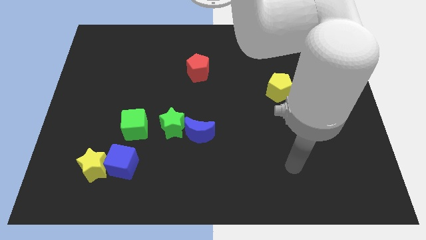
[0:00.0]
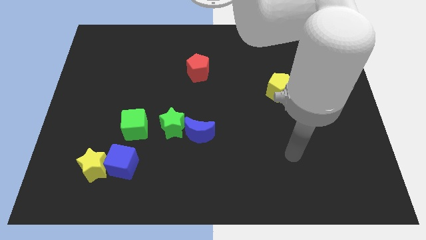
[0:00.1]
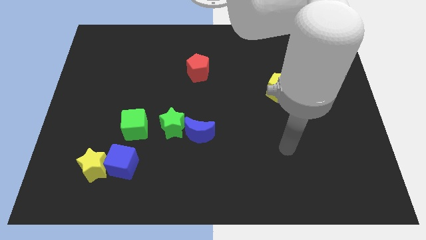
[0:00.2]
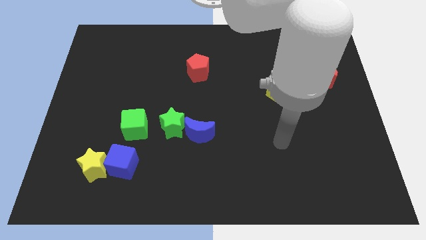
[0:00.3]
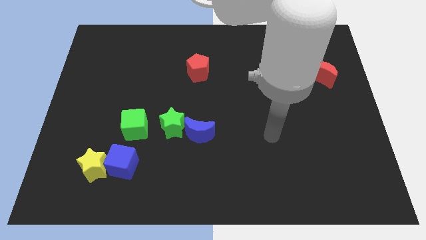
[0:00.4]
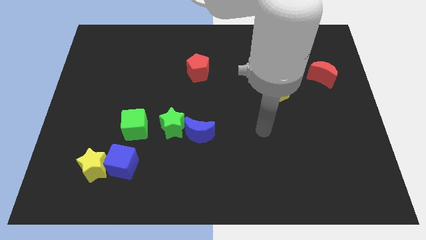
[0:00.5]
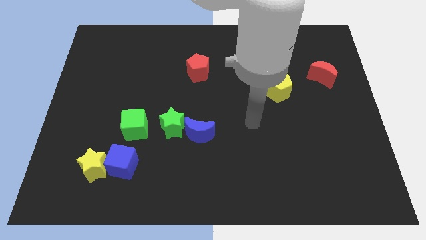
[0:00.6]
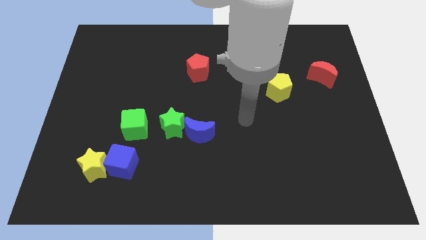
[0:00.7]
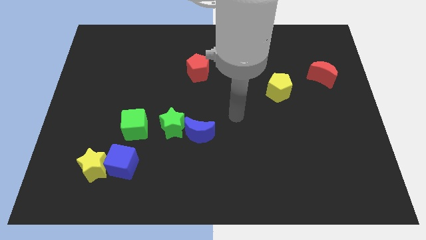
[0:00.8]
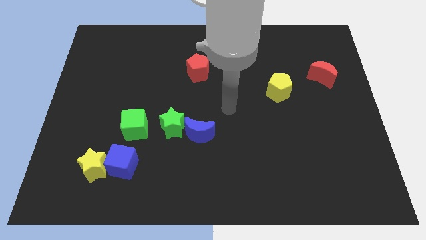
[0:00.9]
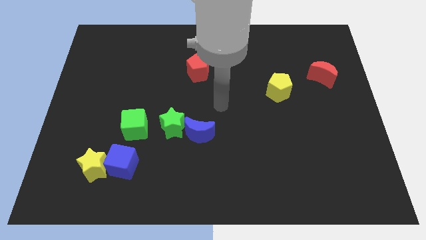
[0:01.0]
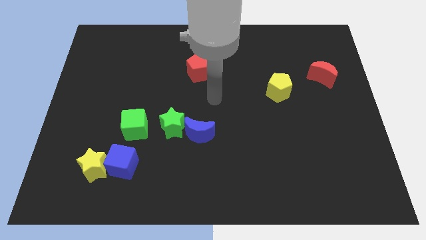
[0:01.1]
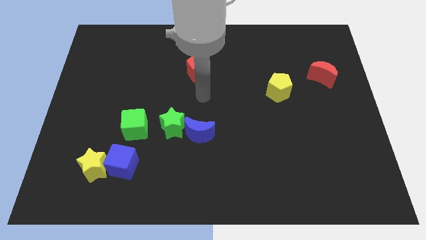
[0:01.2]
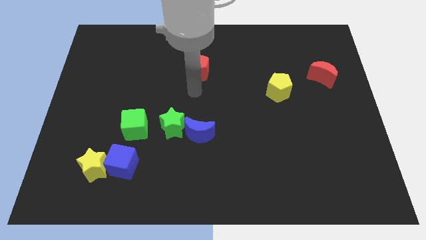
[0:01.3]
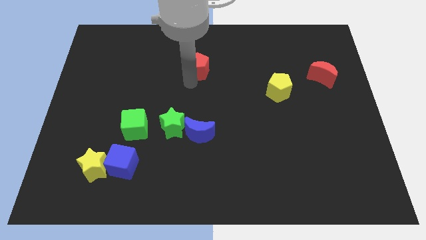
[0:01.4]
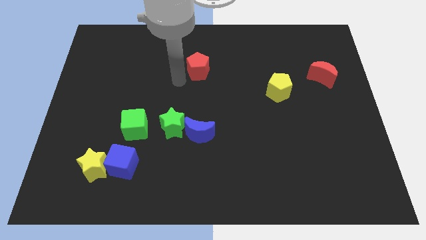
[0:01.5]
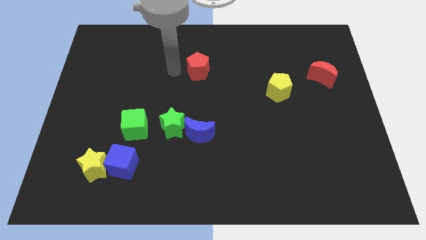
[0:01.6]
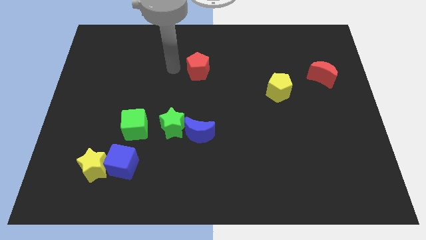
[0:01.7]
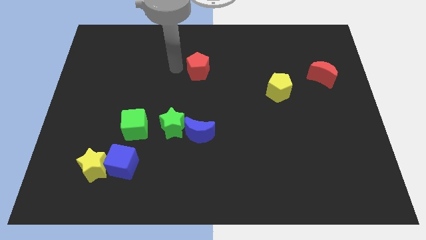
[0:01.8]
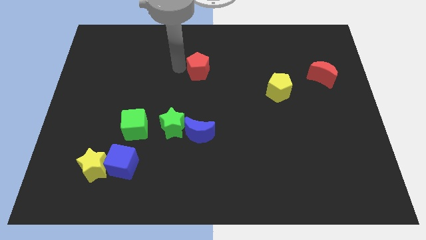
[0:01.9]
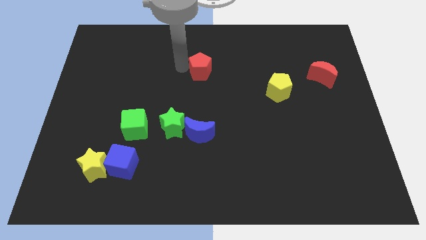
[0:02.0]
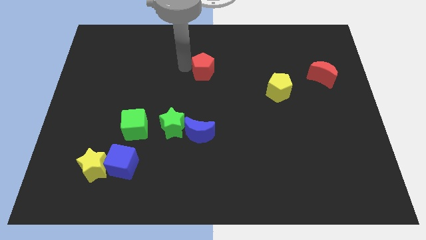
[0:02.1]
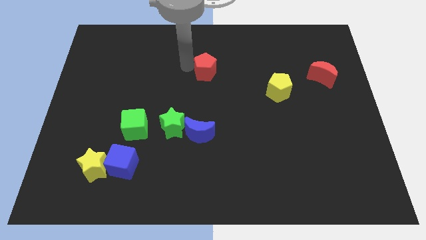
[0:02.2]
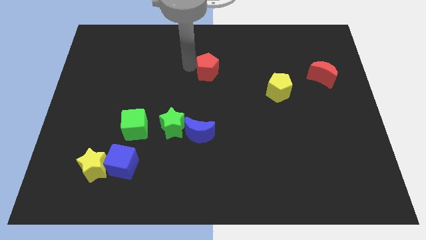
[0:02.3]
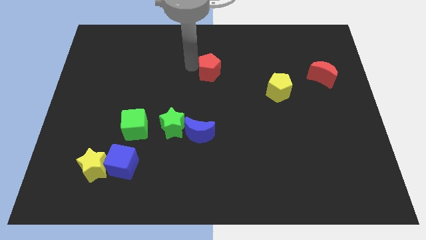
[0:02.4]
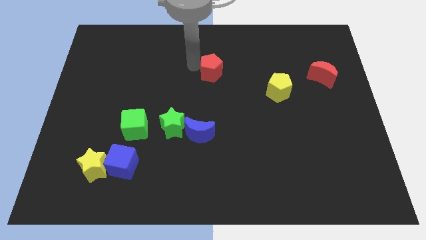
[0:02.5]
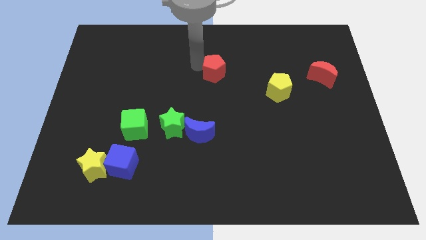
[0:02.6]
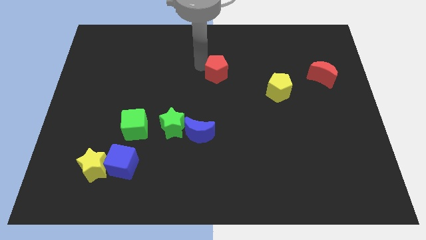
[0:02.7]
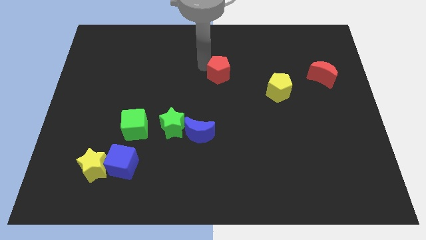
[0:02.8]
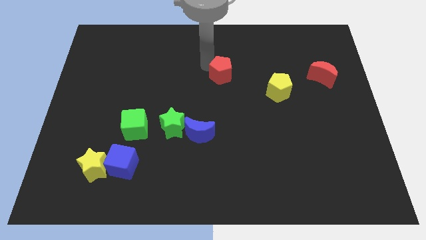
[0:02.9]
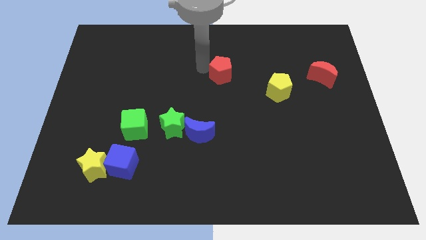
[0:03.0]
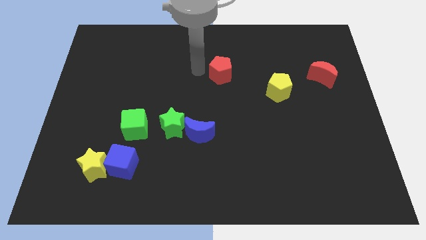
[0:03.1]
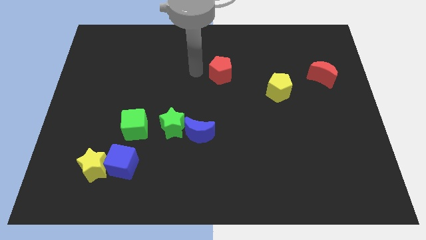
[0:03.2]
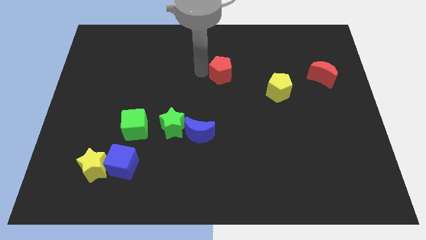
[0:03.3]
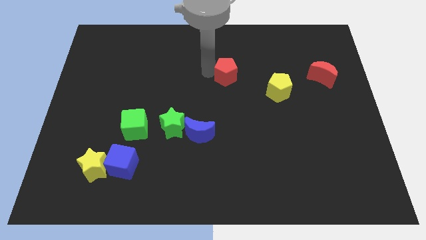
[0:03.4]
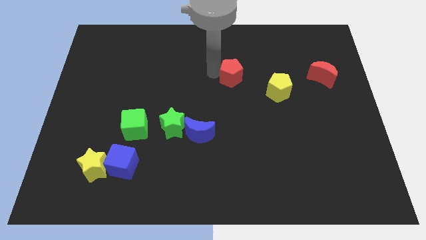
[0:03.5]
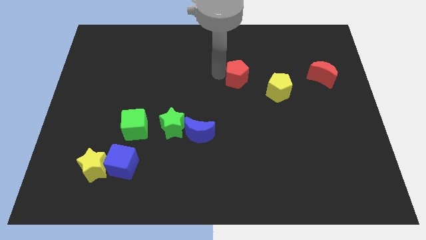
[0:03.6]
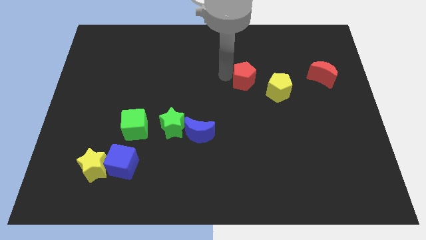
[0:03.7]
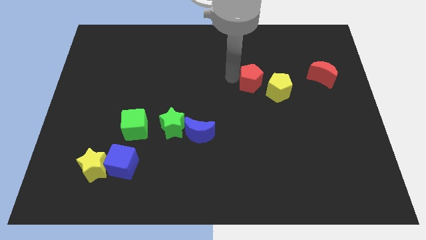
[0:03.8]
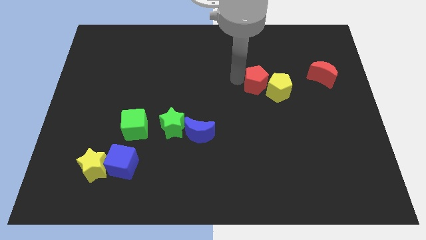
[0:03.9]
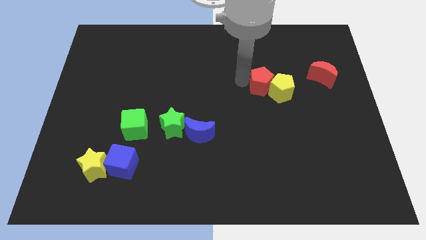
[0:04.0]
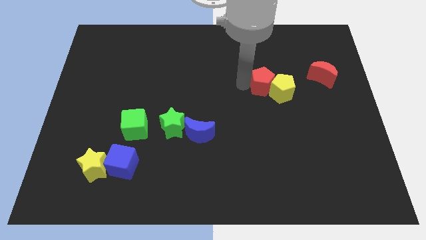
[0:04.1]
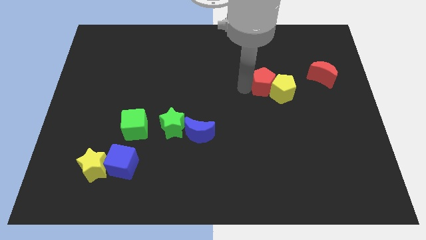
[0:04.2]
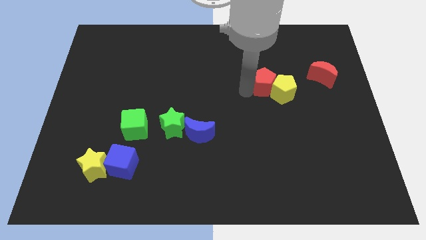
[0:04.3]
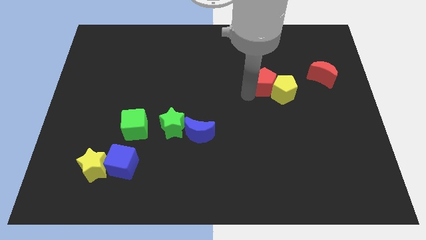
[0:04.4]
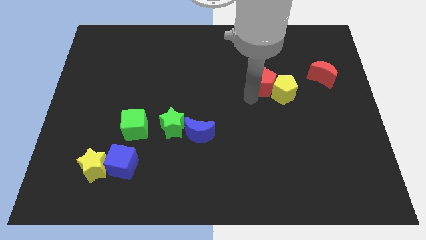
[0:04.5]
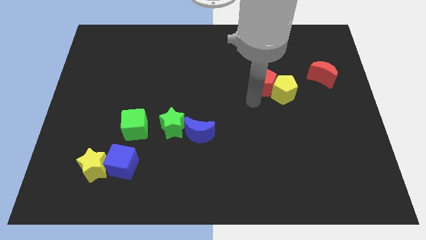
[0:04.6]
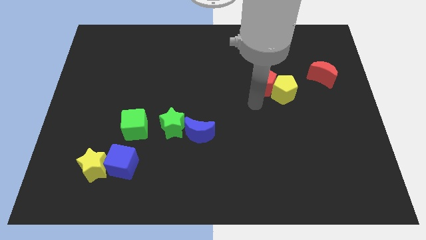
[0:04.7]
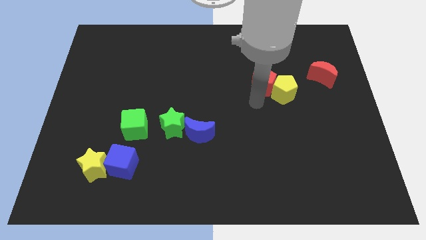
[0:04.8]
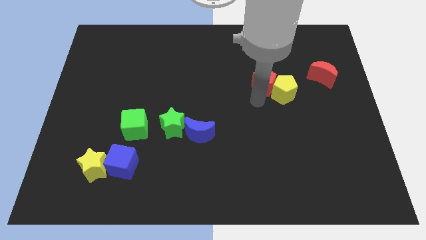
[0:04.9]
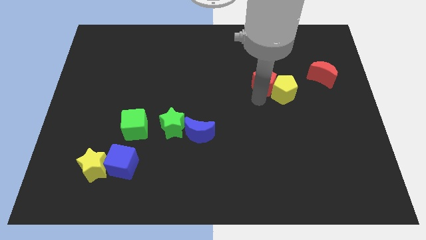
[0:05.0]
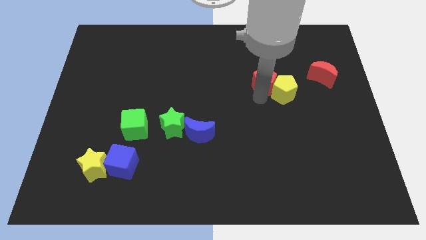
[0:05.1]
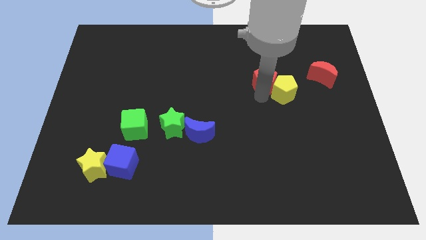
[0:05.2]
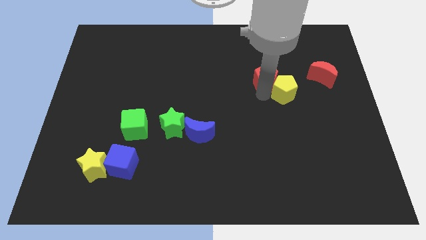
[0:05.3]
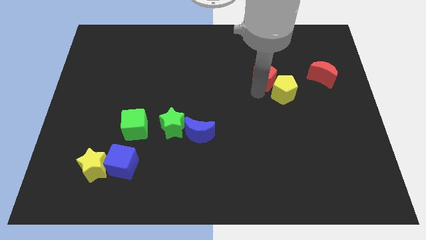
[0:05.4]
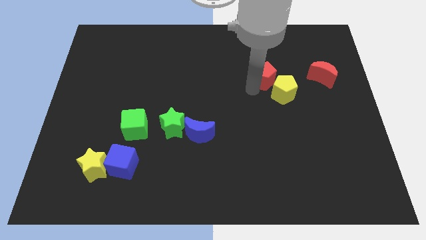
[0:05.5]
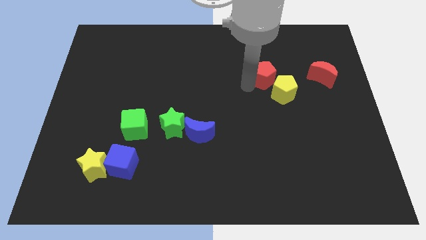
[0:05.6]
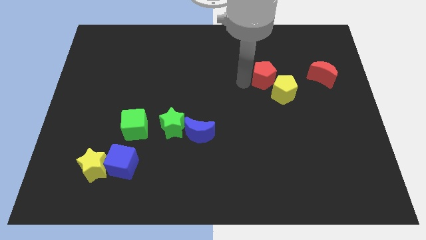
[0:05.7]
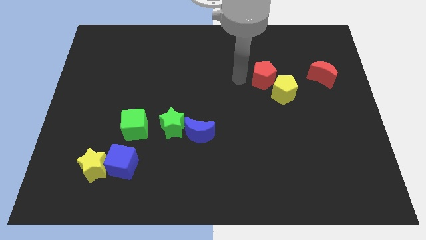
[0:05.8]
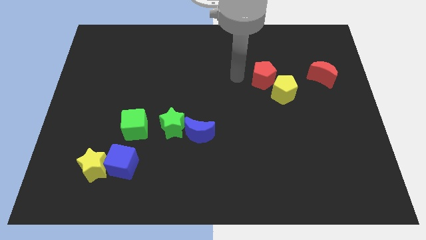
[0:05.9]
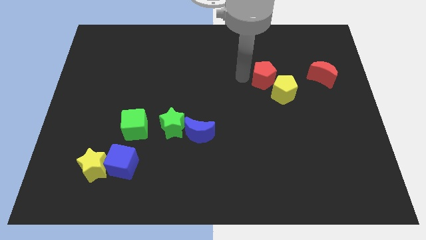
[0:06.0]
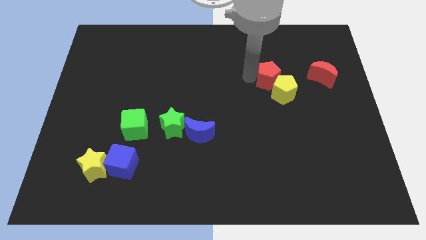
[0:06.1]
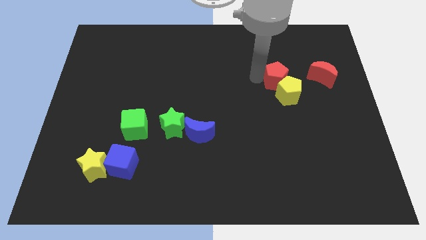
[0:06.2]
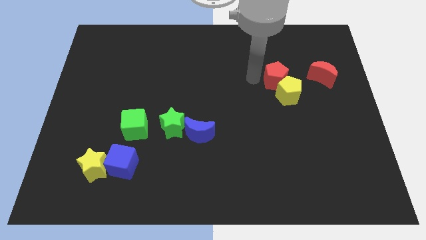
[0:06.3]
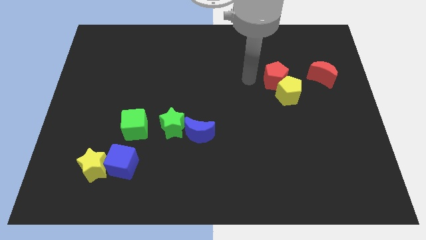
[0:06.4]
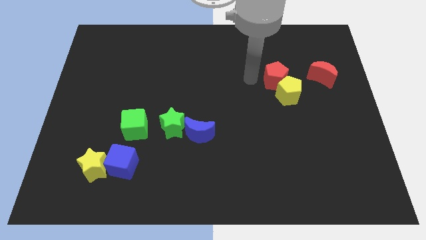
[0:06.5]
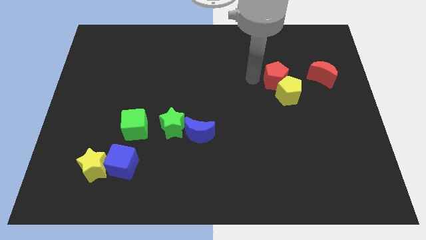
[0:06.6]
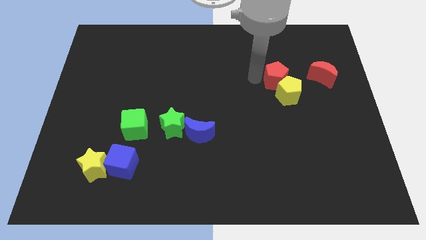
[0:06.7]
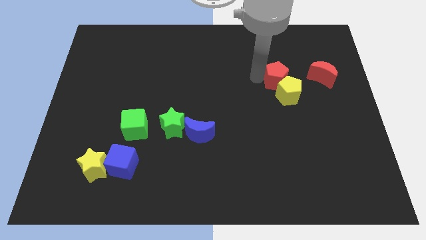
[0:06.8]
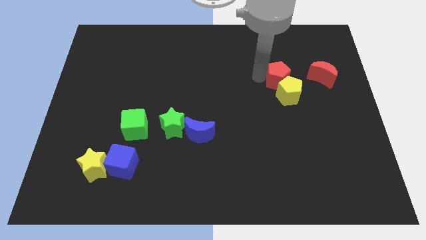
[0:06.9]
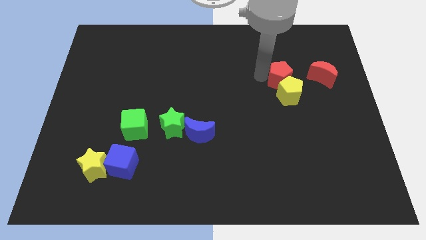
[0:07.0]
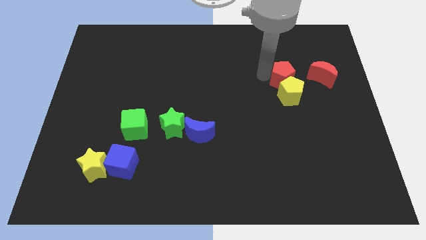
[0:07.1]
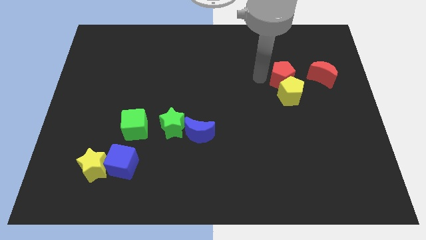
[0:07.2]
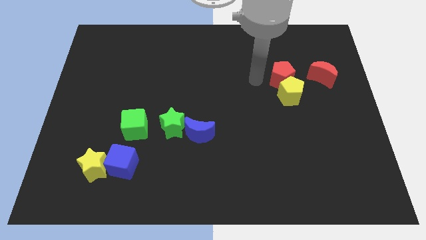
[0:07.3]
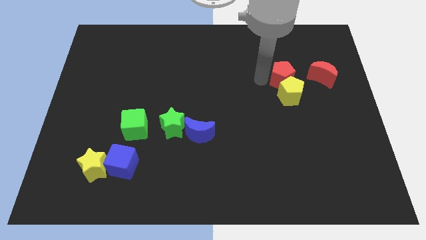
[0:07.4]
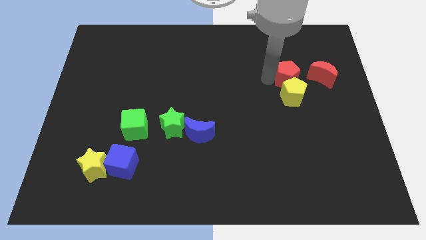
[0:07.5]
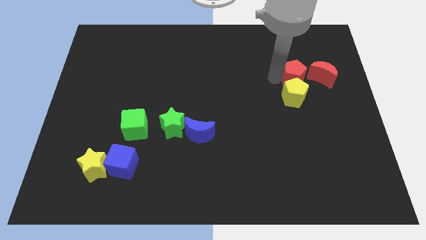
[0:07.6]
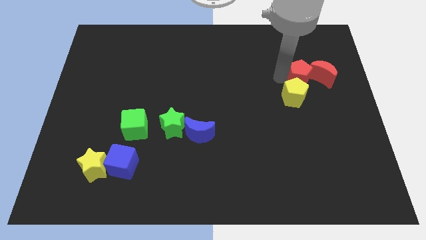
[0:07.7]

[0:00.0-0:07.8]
push the red pentagon next to the red moon
